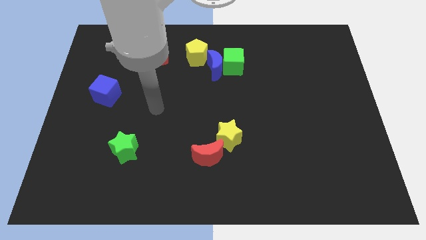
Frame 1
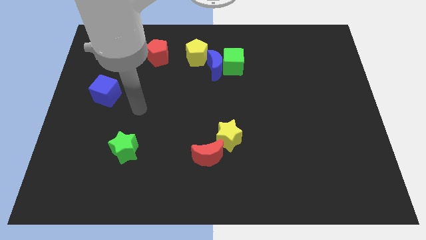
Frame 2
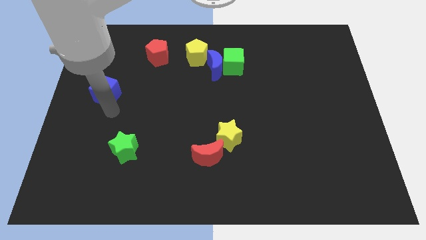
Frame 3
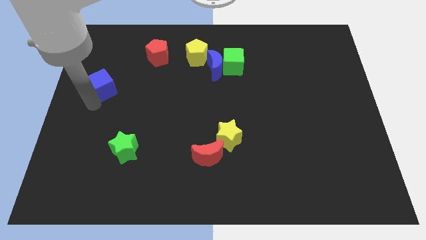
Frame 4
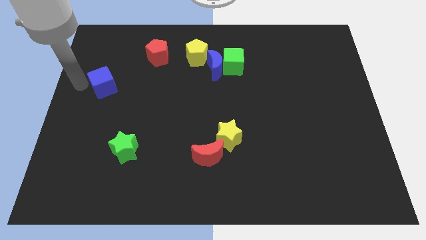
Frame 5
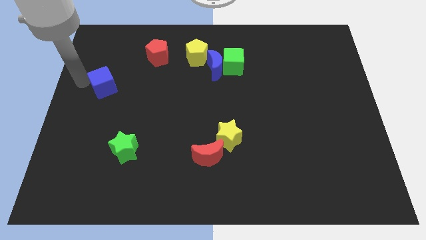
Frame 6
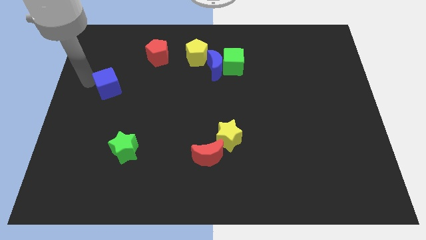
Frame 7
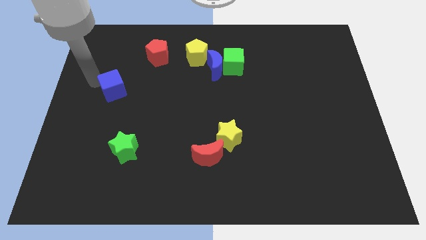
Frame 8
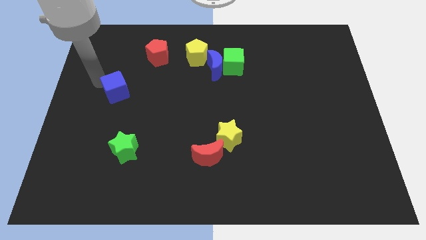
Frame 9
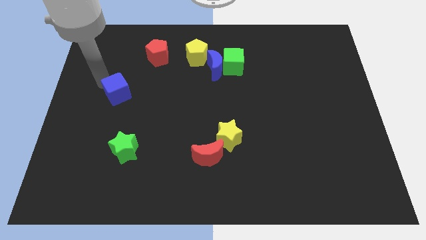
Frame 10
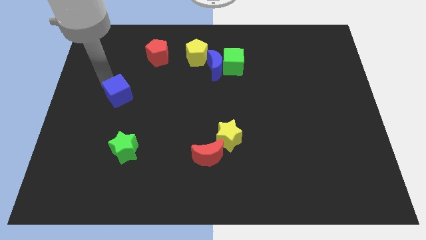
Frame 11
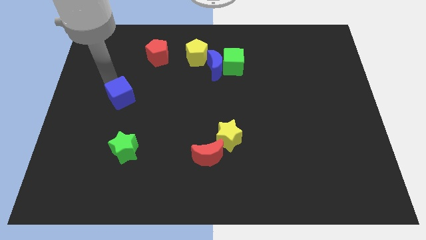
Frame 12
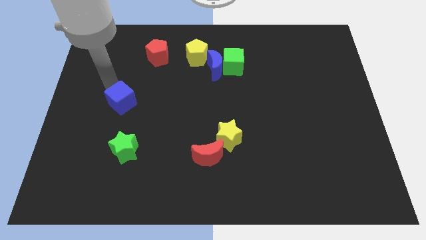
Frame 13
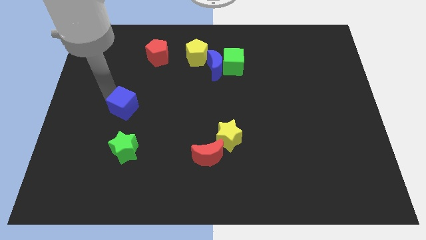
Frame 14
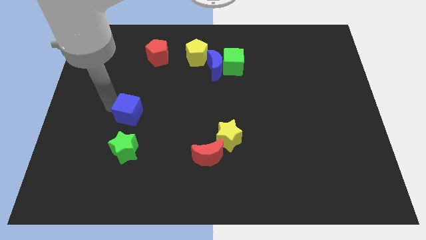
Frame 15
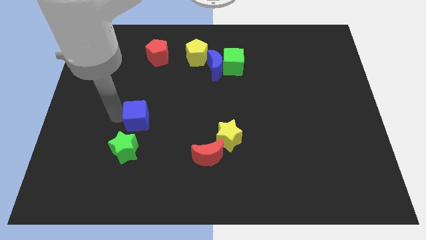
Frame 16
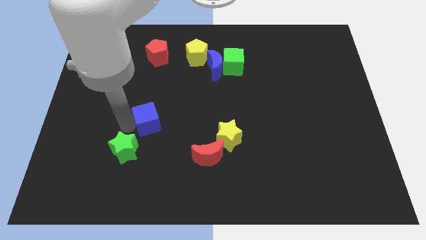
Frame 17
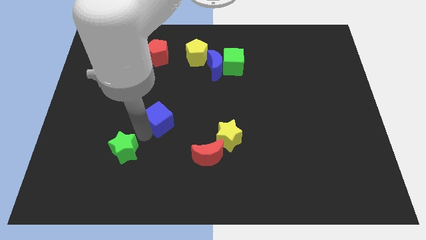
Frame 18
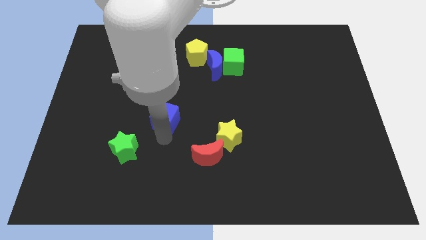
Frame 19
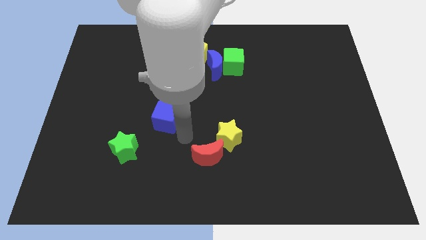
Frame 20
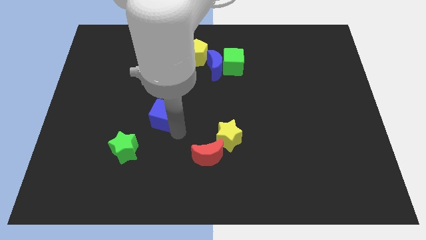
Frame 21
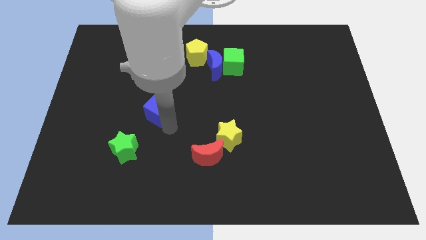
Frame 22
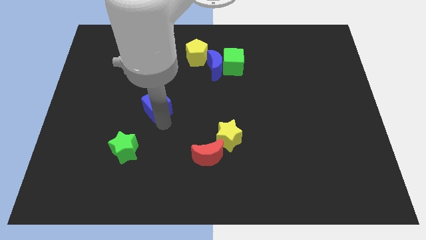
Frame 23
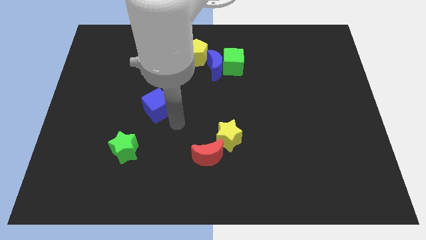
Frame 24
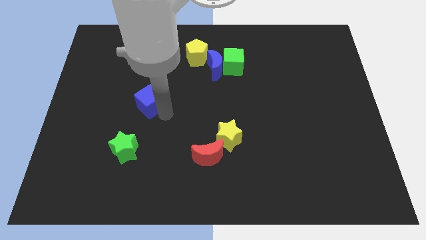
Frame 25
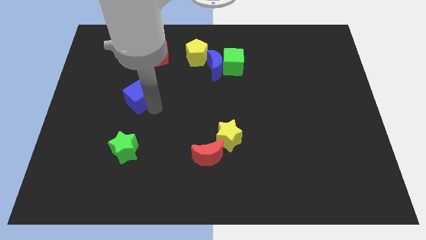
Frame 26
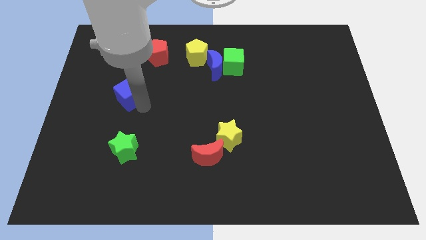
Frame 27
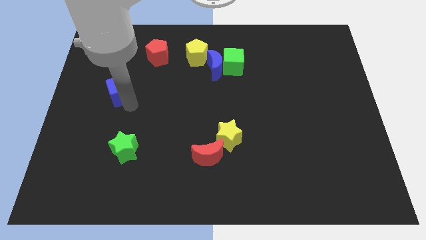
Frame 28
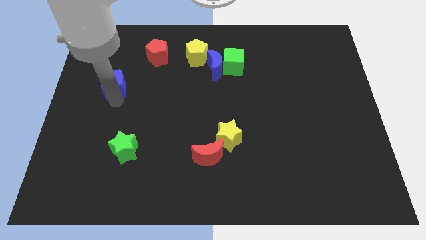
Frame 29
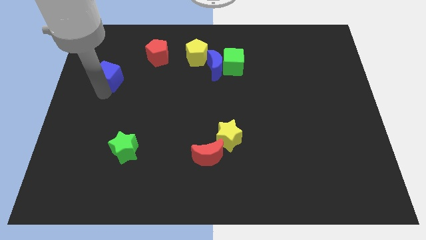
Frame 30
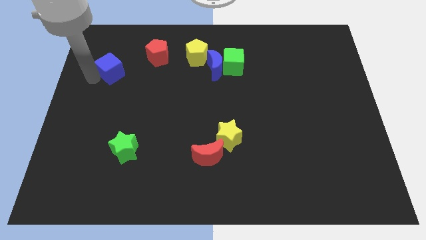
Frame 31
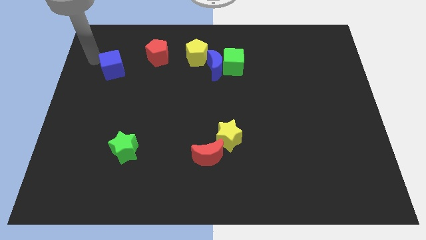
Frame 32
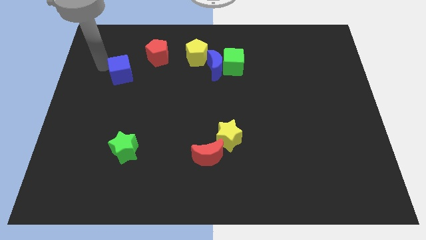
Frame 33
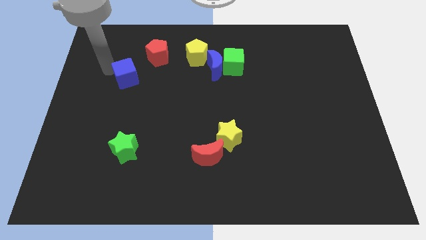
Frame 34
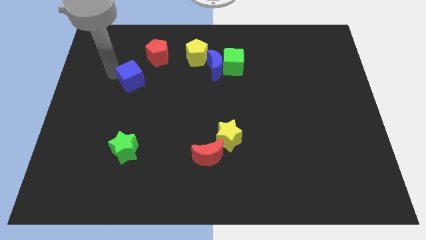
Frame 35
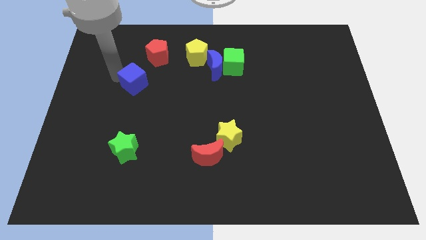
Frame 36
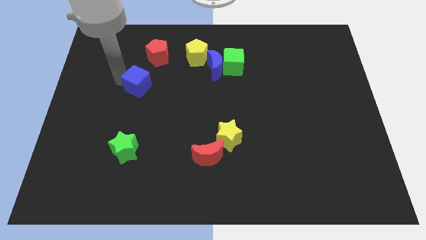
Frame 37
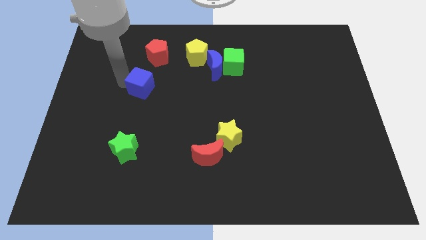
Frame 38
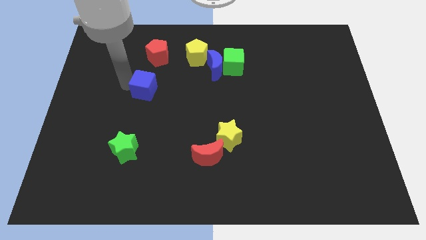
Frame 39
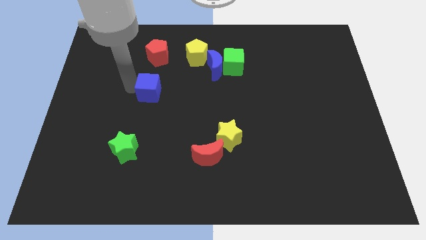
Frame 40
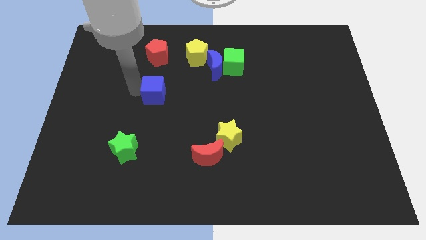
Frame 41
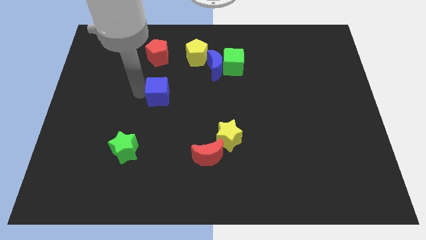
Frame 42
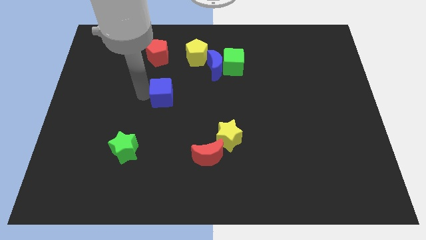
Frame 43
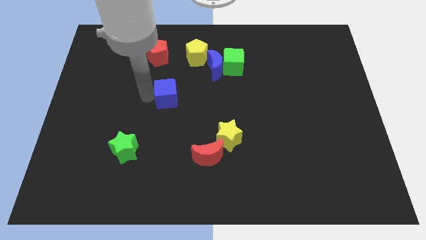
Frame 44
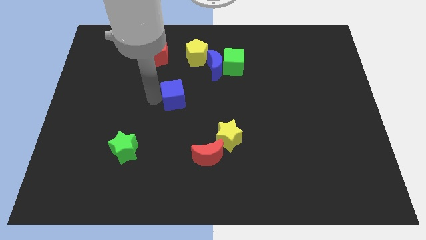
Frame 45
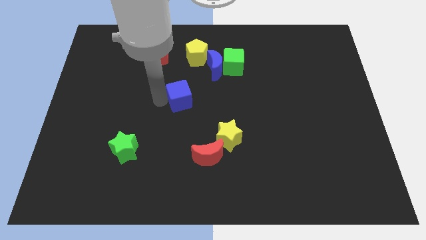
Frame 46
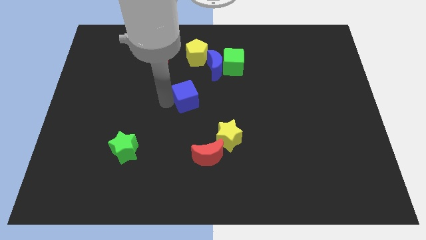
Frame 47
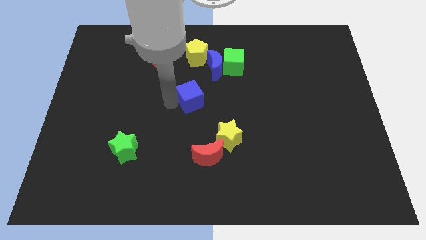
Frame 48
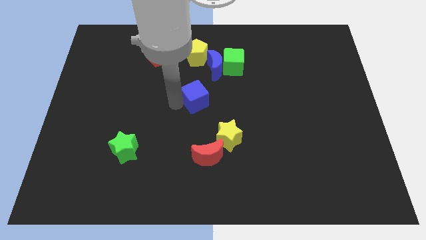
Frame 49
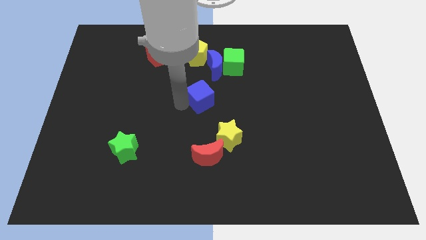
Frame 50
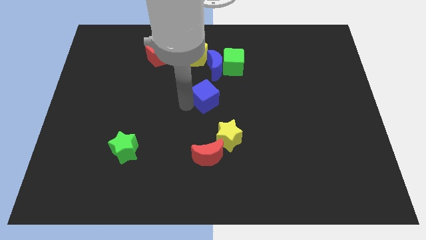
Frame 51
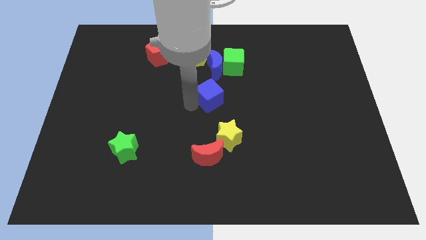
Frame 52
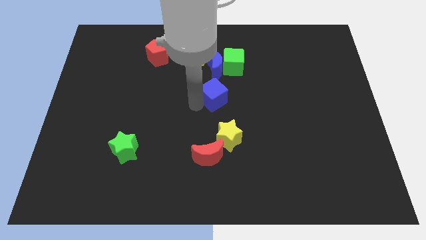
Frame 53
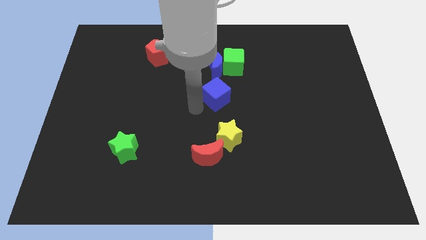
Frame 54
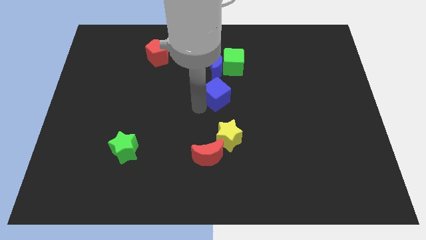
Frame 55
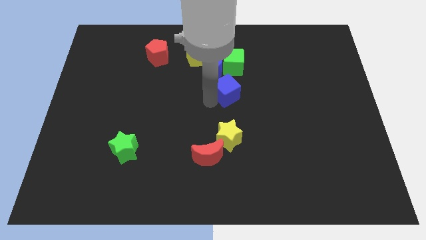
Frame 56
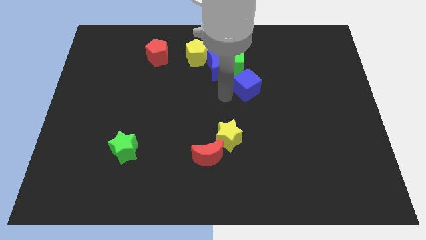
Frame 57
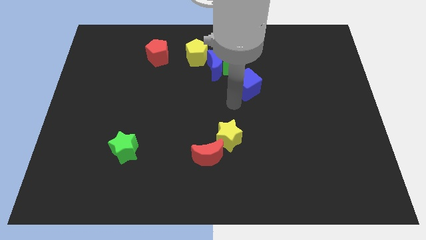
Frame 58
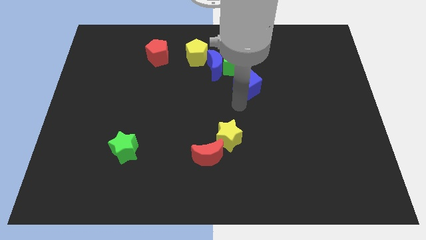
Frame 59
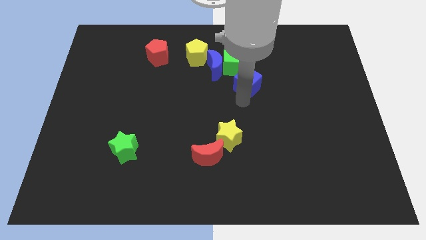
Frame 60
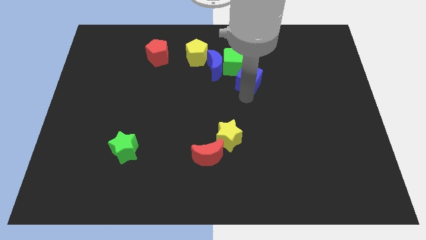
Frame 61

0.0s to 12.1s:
move the blue cube to the right side of the blue moon

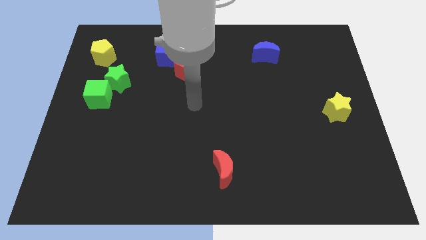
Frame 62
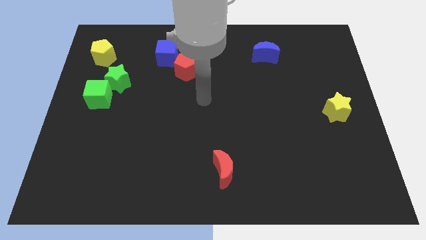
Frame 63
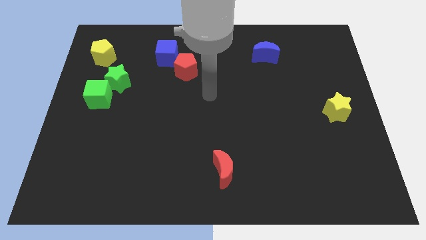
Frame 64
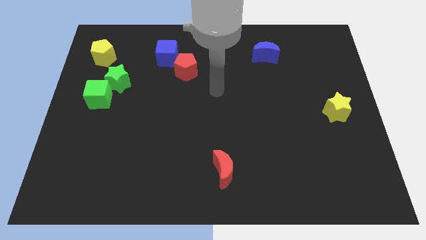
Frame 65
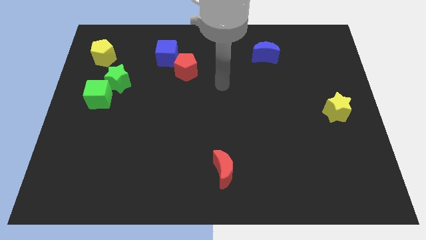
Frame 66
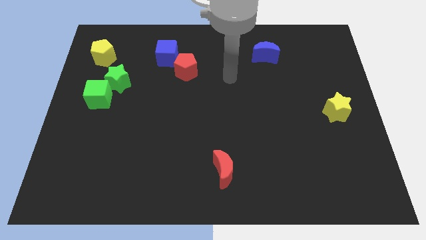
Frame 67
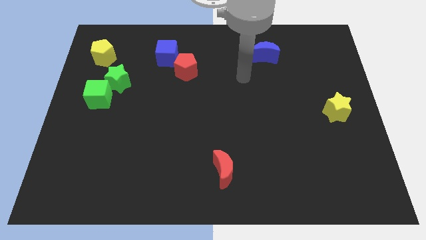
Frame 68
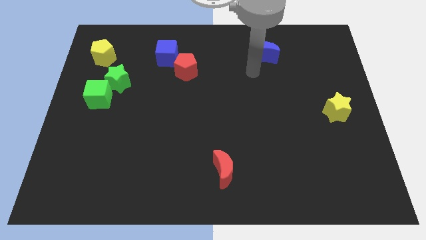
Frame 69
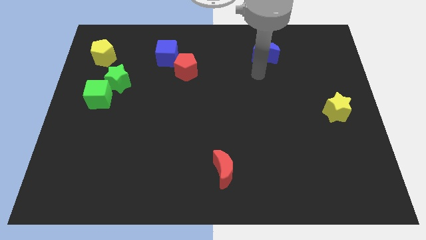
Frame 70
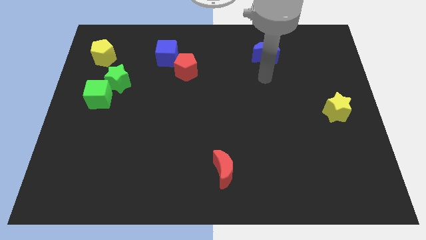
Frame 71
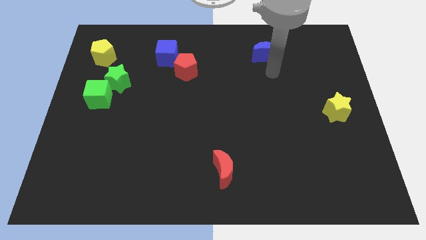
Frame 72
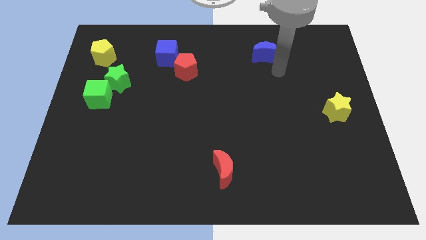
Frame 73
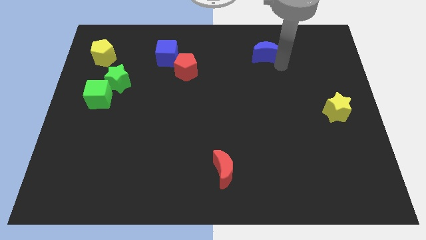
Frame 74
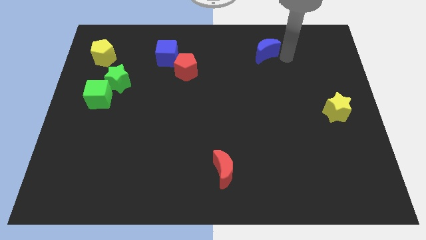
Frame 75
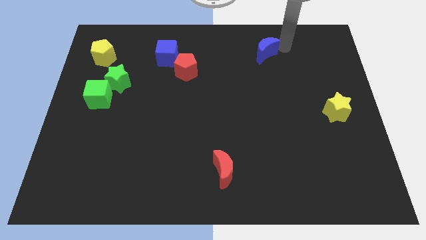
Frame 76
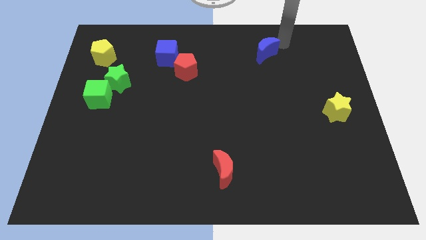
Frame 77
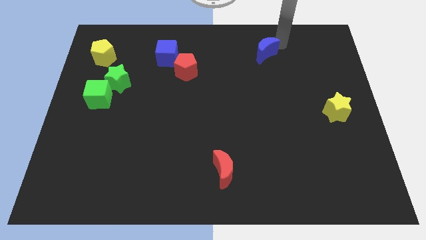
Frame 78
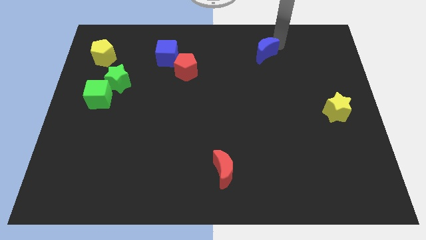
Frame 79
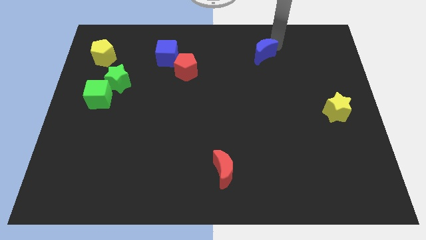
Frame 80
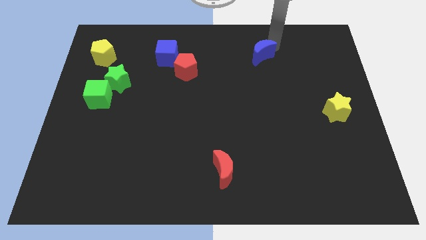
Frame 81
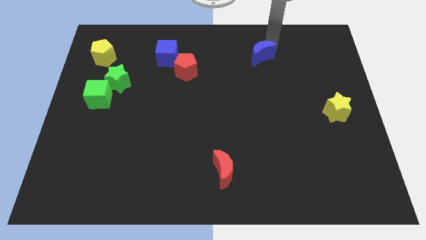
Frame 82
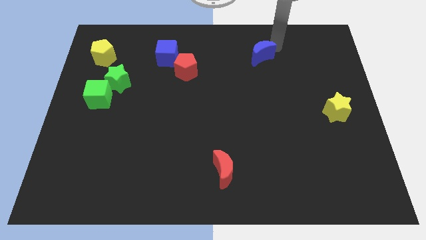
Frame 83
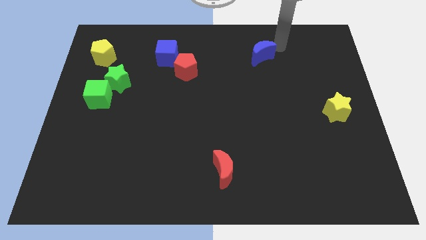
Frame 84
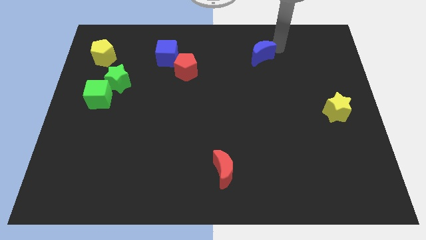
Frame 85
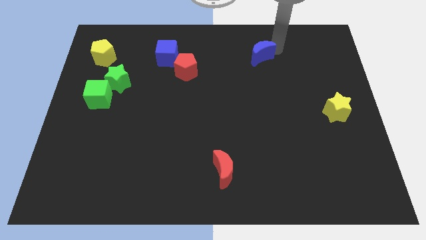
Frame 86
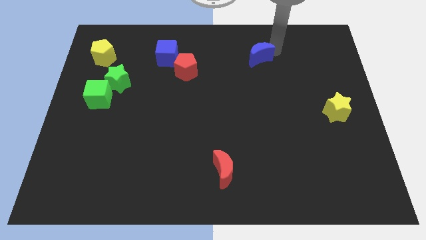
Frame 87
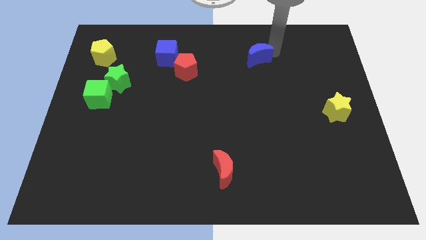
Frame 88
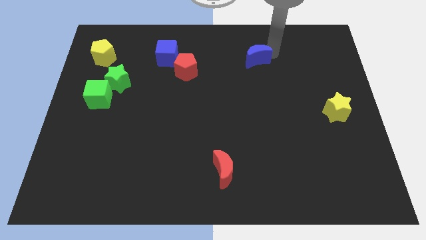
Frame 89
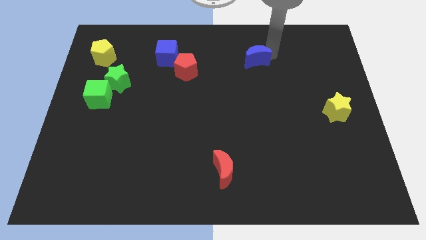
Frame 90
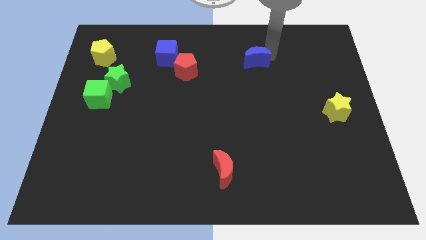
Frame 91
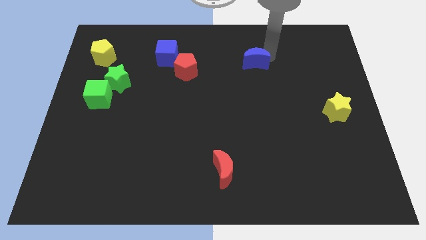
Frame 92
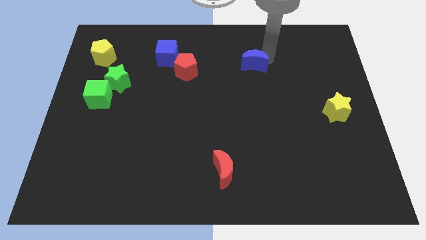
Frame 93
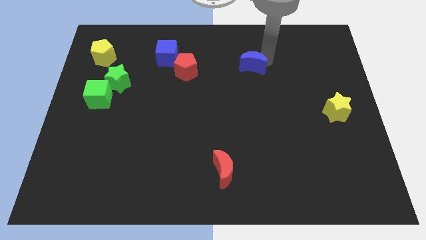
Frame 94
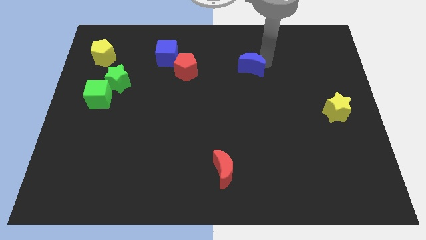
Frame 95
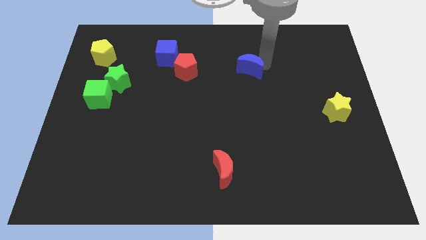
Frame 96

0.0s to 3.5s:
put the blue moon to the right side of the red pentagon
